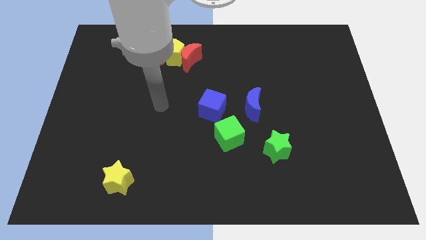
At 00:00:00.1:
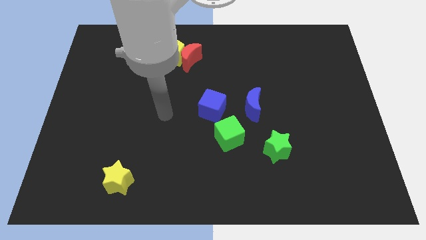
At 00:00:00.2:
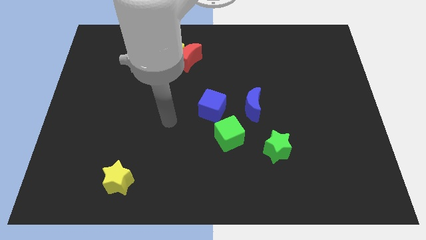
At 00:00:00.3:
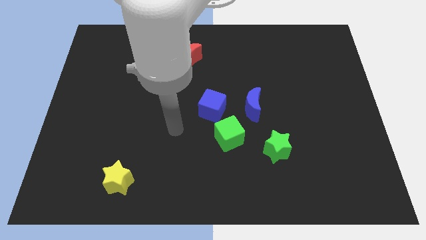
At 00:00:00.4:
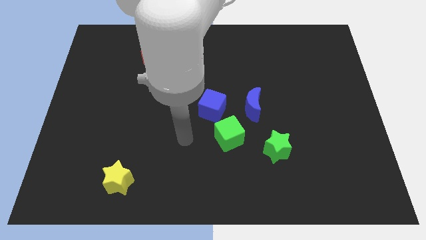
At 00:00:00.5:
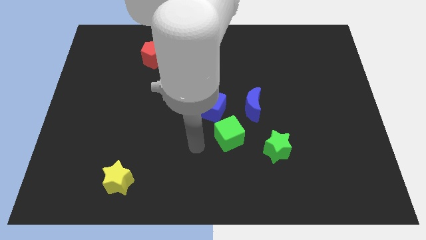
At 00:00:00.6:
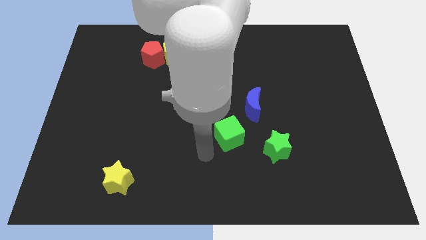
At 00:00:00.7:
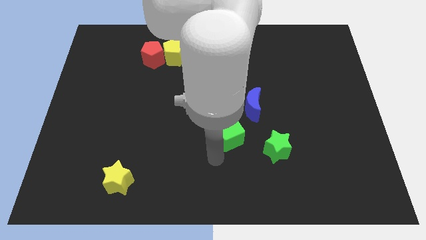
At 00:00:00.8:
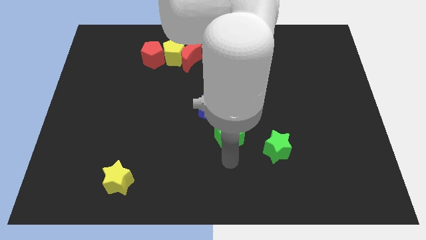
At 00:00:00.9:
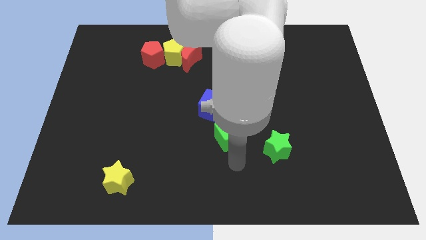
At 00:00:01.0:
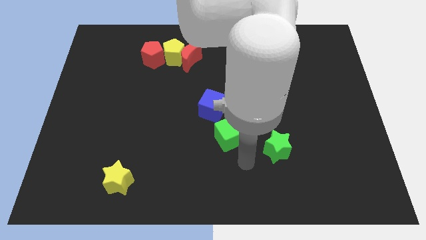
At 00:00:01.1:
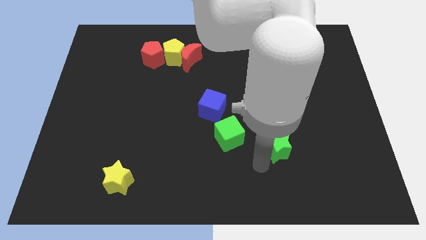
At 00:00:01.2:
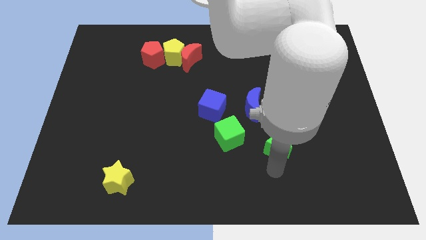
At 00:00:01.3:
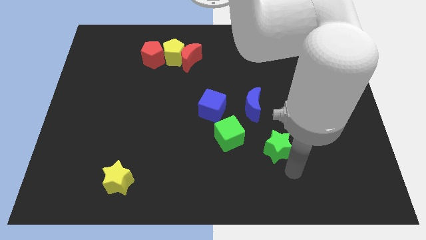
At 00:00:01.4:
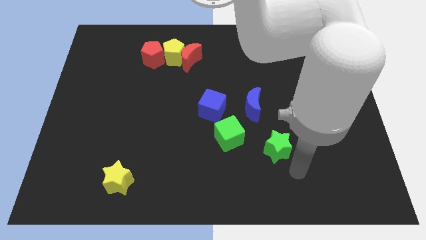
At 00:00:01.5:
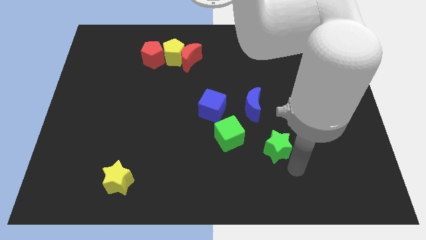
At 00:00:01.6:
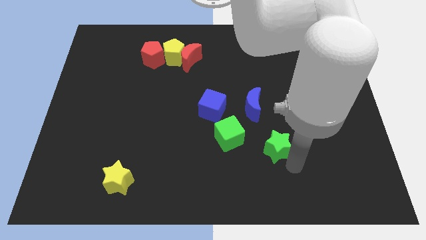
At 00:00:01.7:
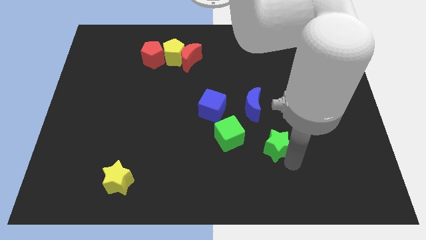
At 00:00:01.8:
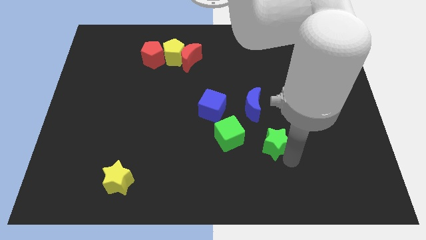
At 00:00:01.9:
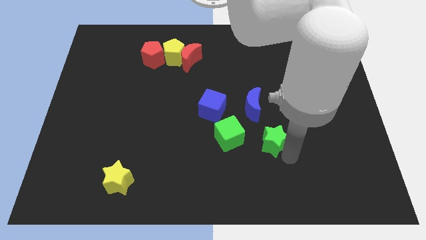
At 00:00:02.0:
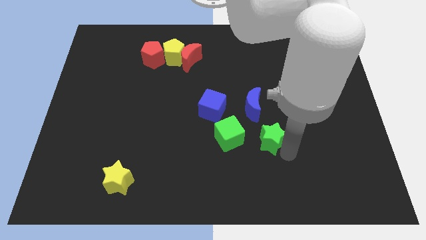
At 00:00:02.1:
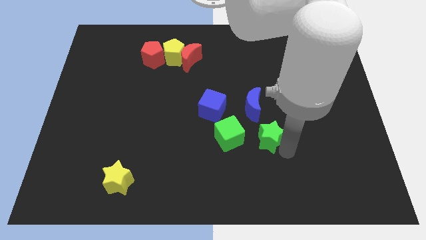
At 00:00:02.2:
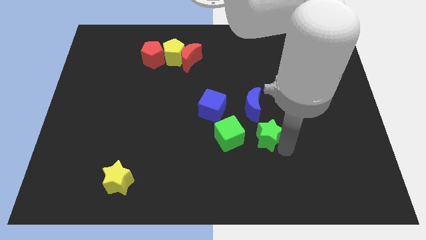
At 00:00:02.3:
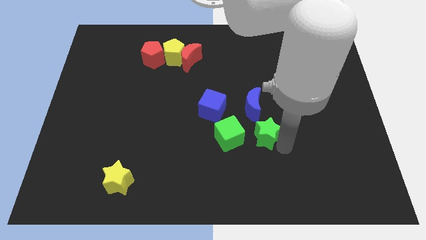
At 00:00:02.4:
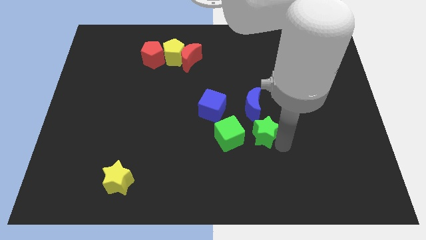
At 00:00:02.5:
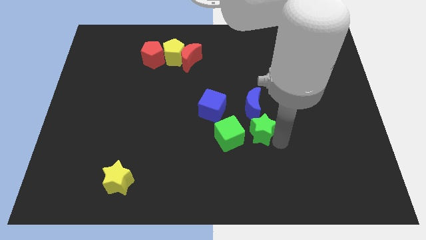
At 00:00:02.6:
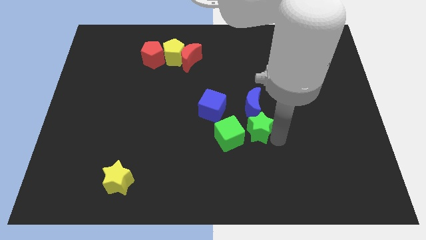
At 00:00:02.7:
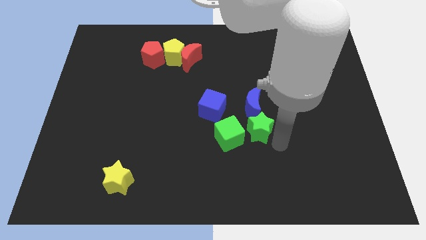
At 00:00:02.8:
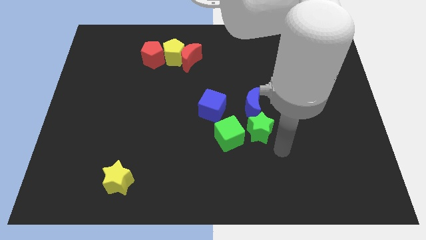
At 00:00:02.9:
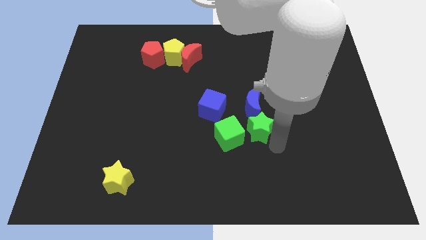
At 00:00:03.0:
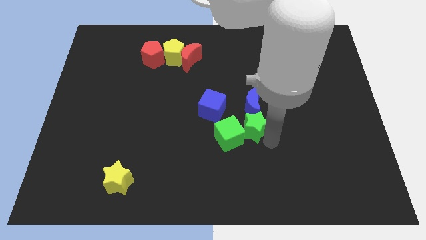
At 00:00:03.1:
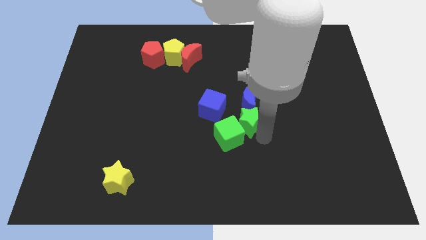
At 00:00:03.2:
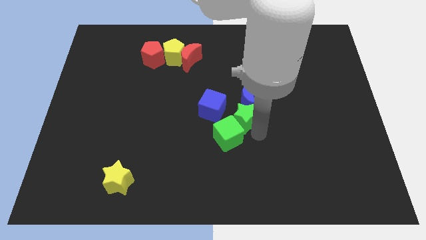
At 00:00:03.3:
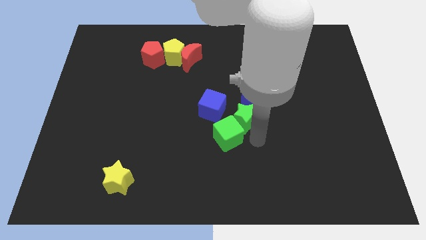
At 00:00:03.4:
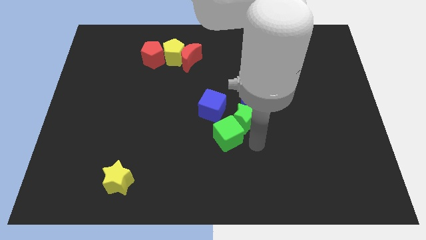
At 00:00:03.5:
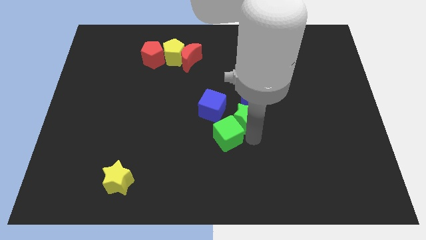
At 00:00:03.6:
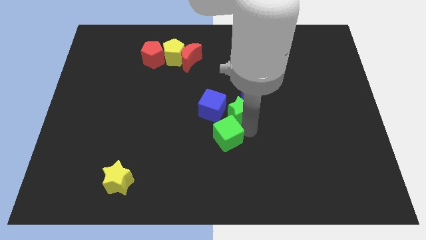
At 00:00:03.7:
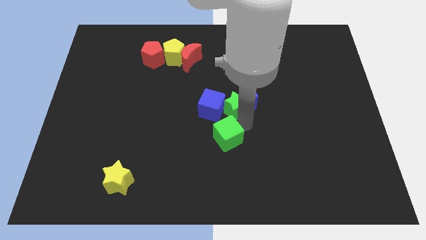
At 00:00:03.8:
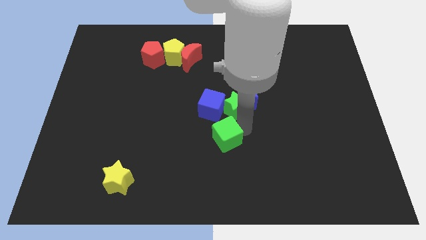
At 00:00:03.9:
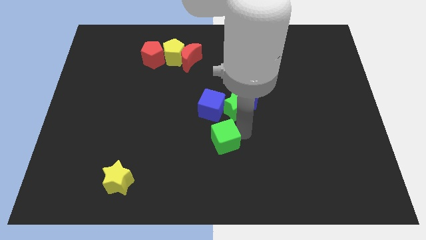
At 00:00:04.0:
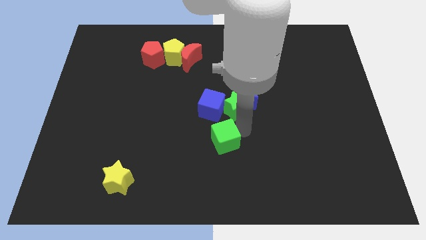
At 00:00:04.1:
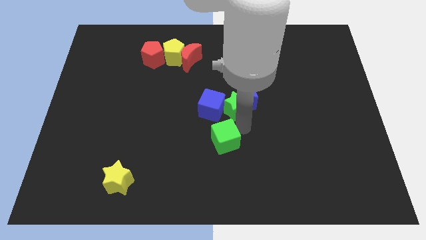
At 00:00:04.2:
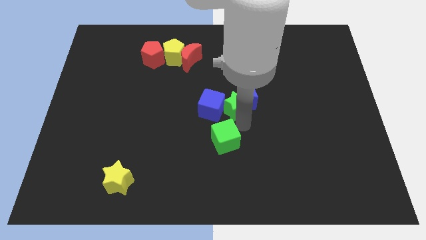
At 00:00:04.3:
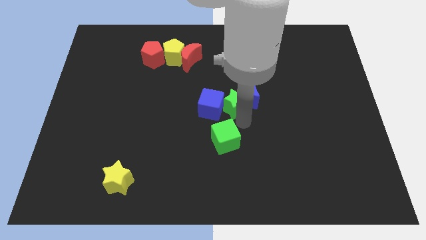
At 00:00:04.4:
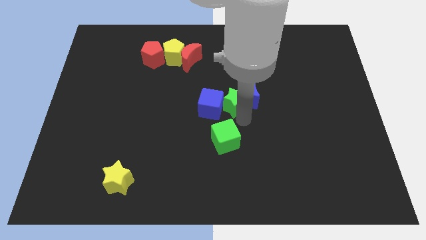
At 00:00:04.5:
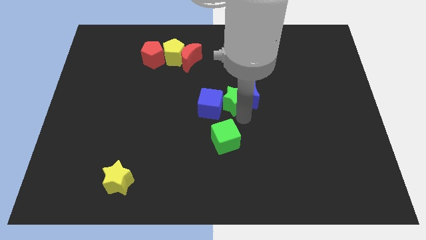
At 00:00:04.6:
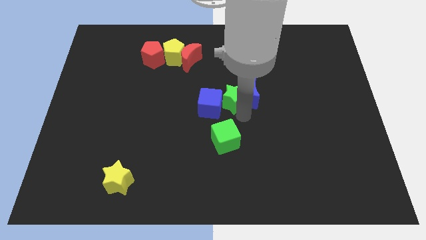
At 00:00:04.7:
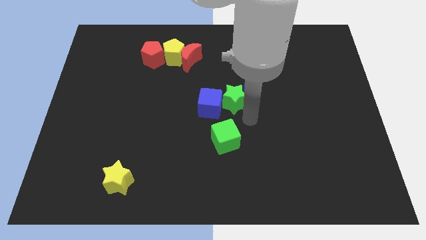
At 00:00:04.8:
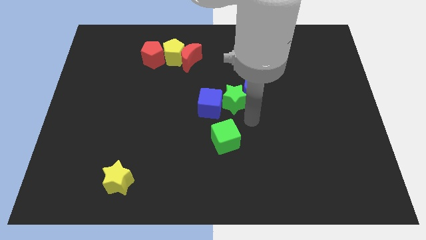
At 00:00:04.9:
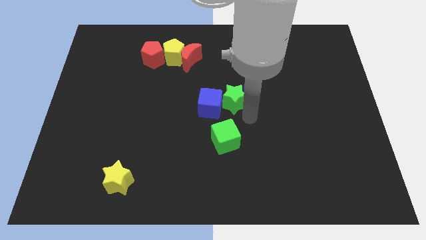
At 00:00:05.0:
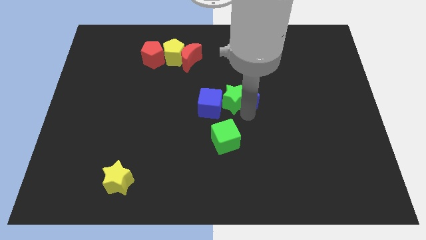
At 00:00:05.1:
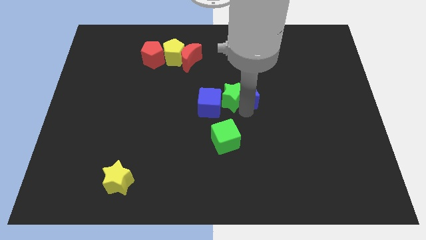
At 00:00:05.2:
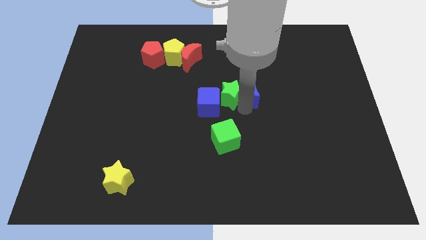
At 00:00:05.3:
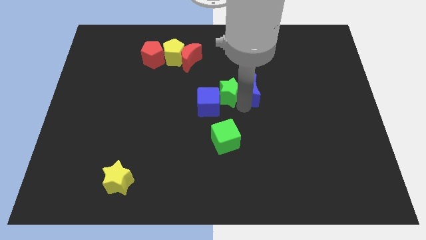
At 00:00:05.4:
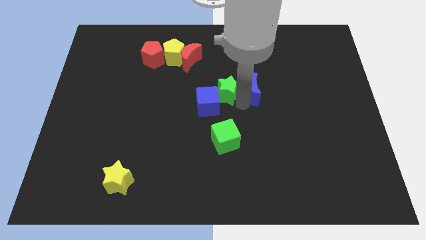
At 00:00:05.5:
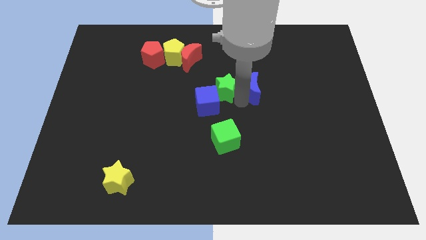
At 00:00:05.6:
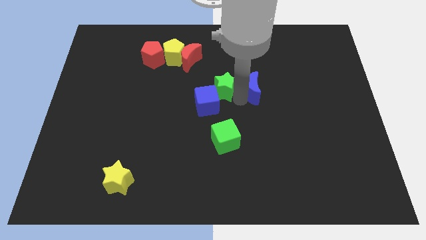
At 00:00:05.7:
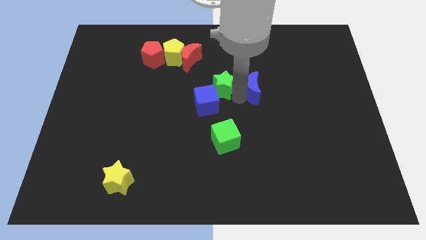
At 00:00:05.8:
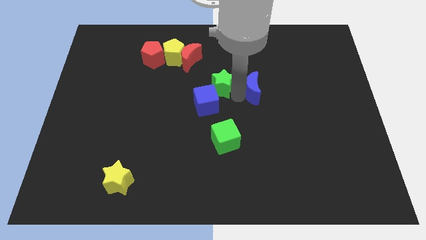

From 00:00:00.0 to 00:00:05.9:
move the green star up and then to the left

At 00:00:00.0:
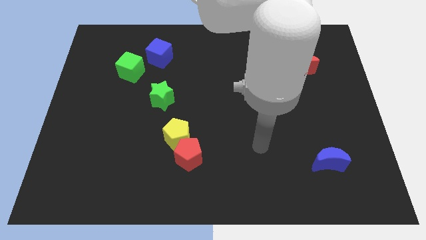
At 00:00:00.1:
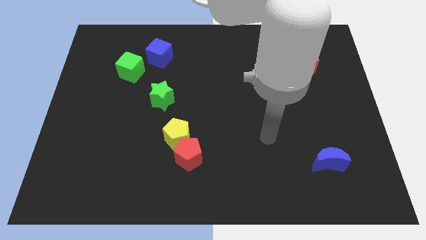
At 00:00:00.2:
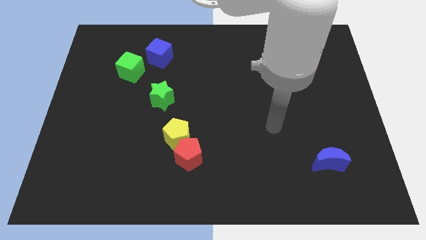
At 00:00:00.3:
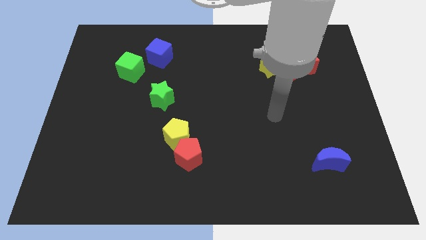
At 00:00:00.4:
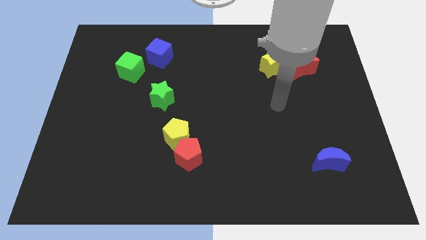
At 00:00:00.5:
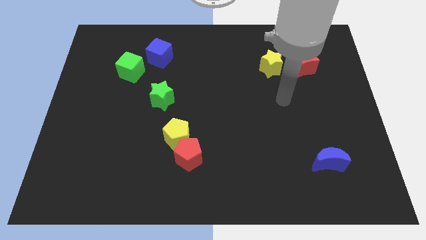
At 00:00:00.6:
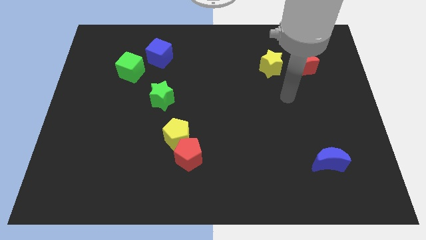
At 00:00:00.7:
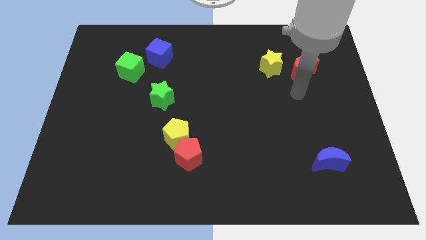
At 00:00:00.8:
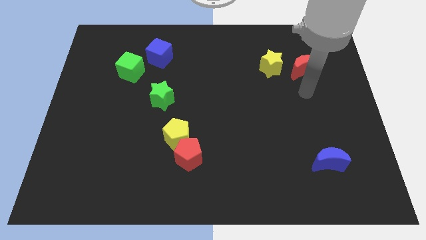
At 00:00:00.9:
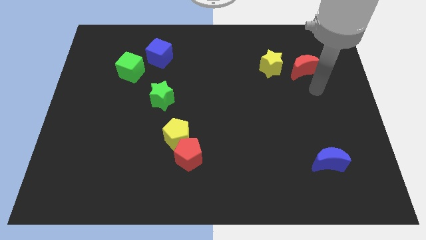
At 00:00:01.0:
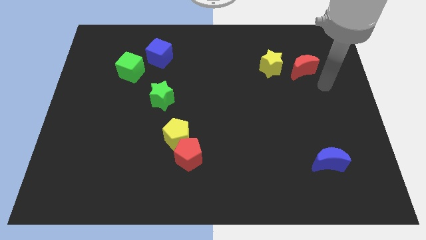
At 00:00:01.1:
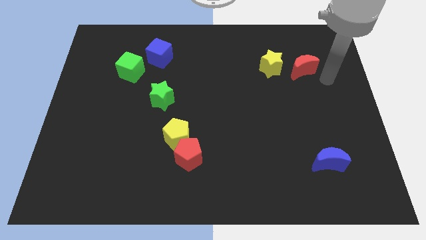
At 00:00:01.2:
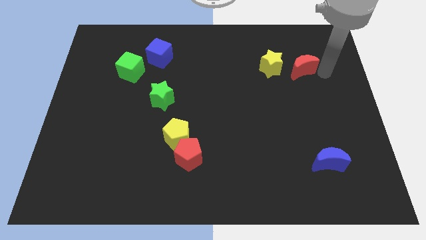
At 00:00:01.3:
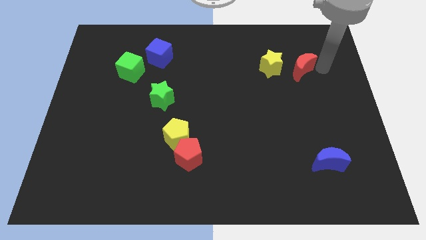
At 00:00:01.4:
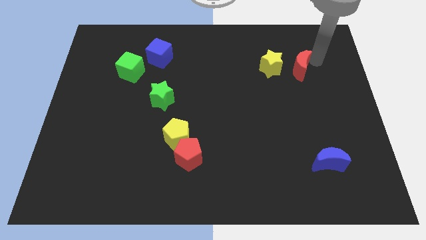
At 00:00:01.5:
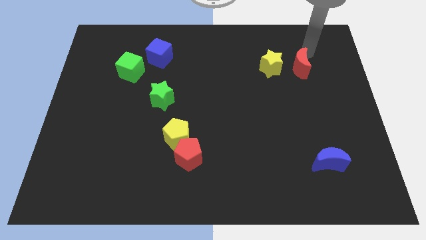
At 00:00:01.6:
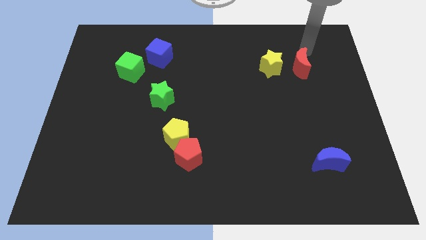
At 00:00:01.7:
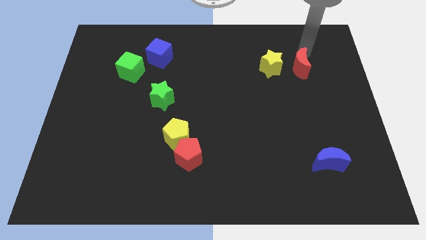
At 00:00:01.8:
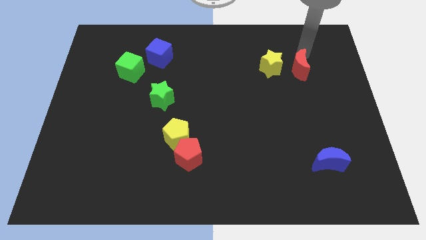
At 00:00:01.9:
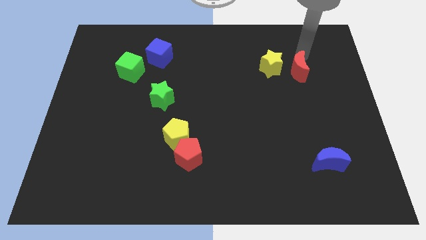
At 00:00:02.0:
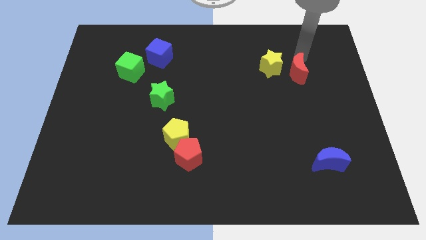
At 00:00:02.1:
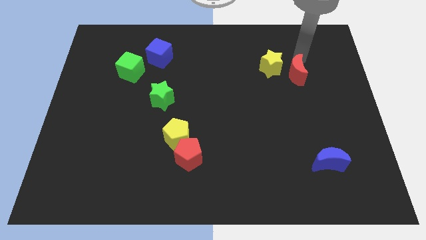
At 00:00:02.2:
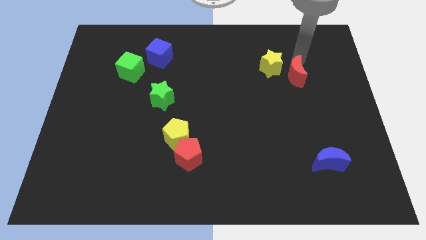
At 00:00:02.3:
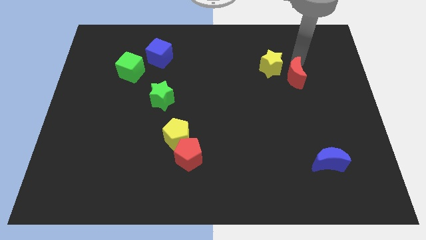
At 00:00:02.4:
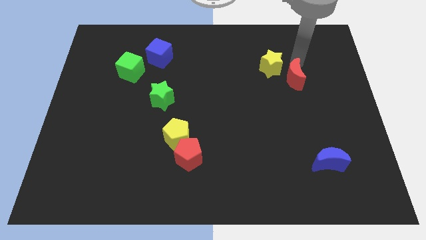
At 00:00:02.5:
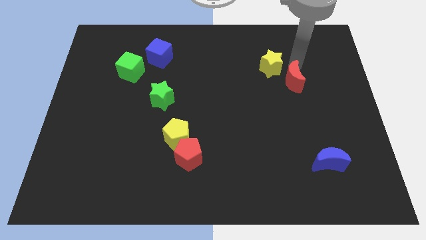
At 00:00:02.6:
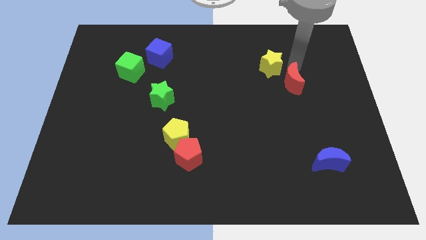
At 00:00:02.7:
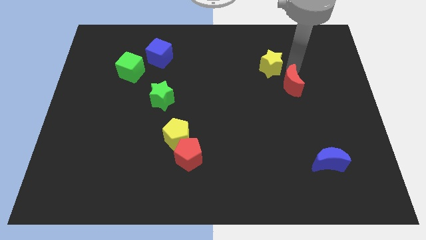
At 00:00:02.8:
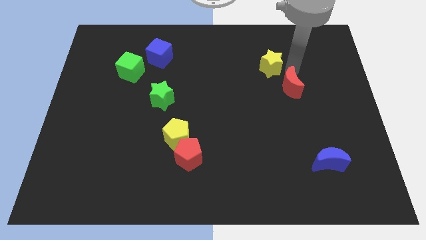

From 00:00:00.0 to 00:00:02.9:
push the red moon a little down and to the left
